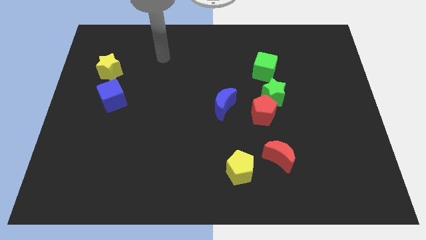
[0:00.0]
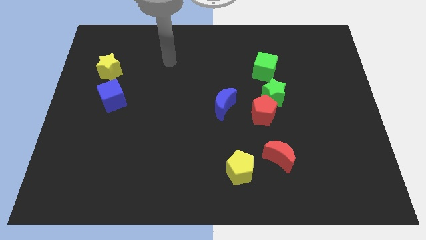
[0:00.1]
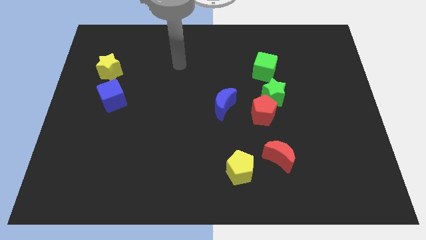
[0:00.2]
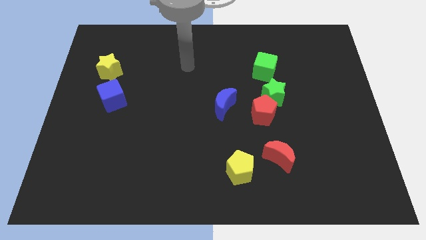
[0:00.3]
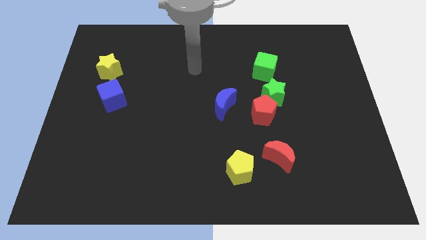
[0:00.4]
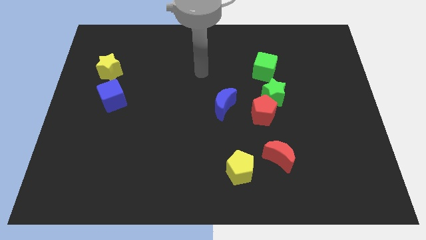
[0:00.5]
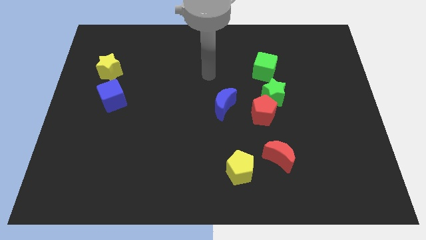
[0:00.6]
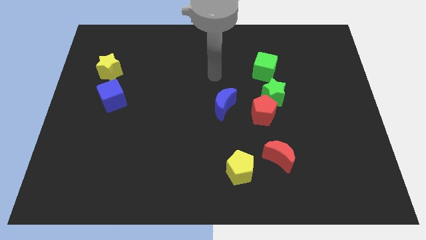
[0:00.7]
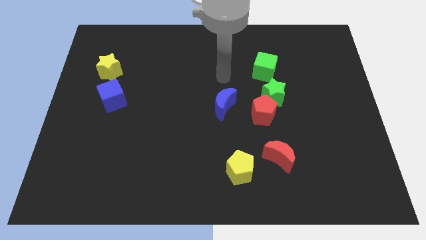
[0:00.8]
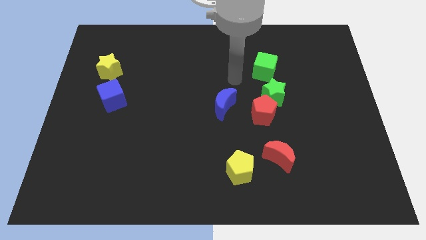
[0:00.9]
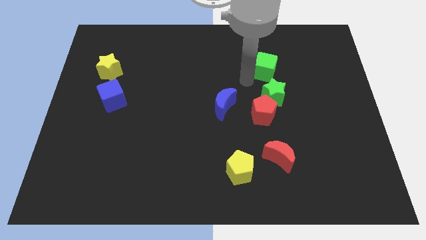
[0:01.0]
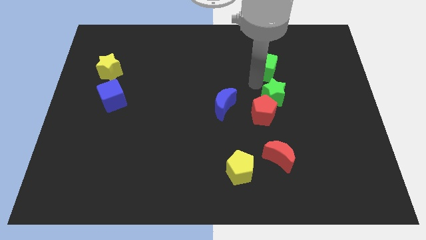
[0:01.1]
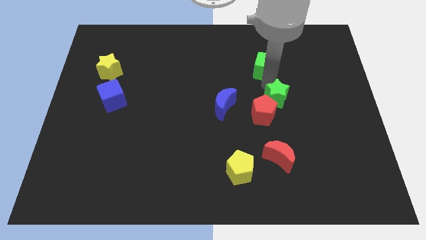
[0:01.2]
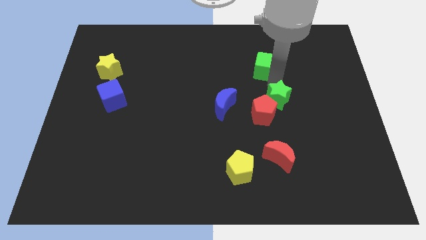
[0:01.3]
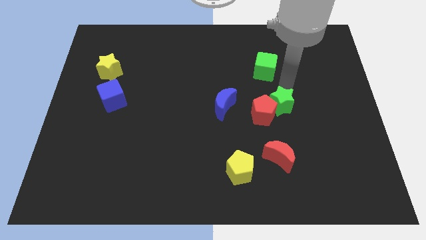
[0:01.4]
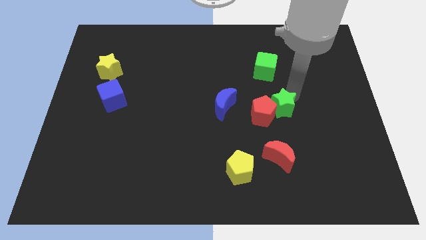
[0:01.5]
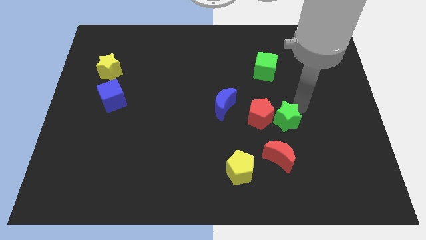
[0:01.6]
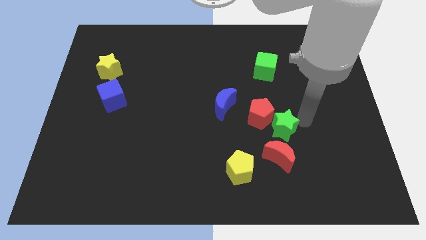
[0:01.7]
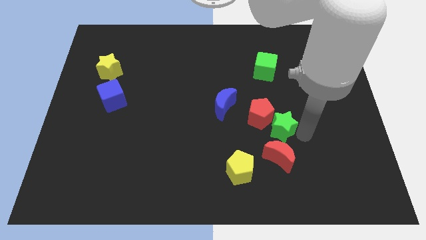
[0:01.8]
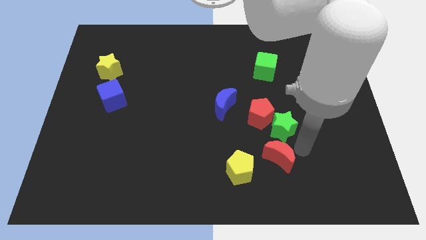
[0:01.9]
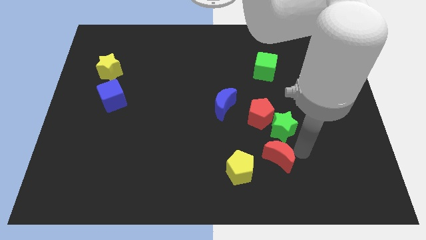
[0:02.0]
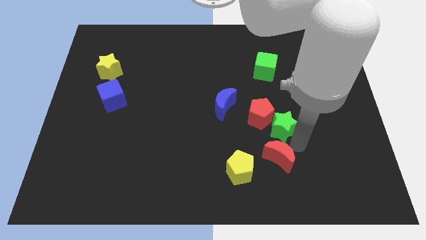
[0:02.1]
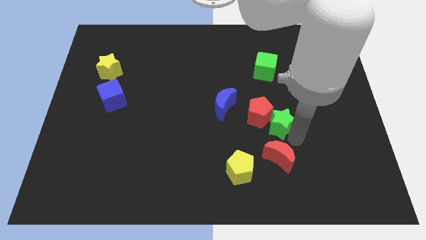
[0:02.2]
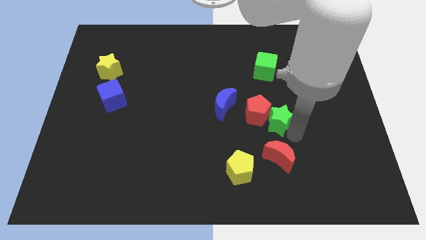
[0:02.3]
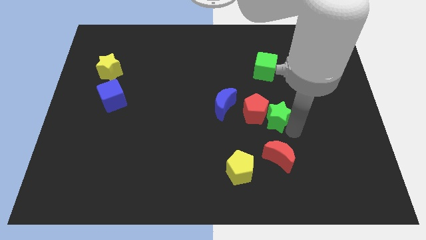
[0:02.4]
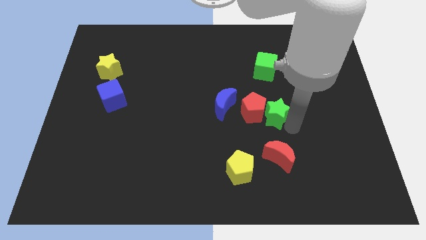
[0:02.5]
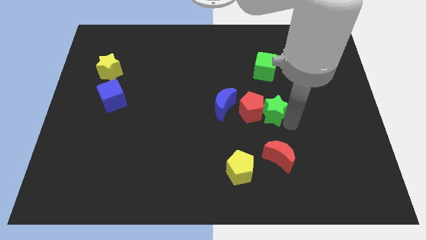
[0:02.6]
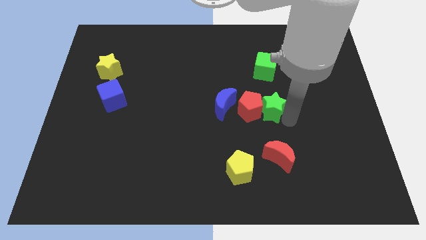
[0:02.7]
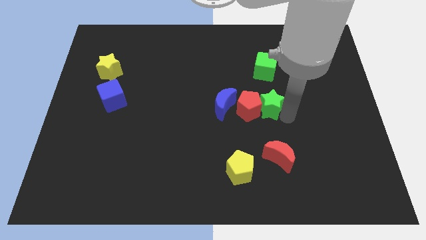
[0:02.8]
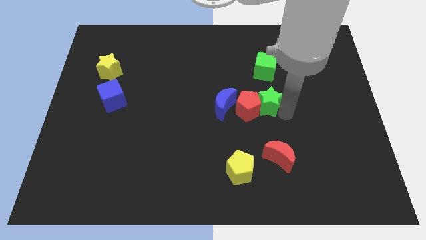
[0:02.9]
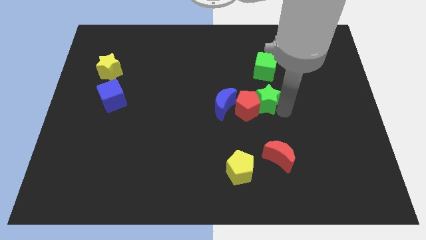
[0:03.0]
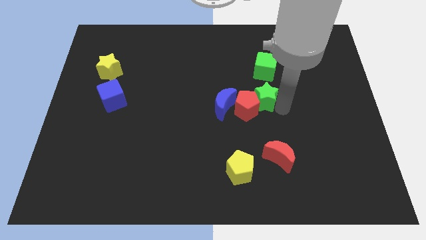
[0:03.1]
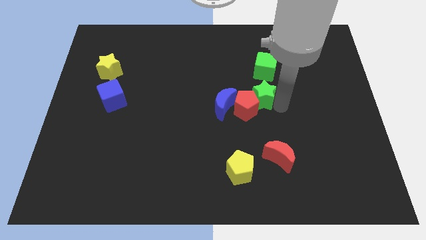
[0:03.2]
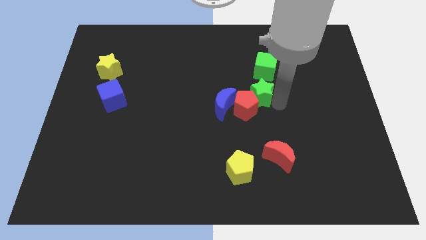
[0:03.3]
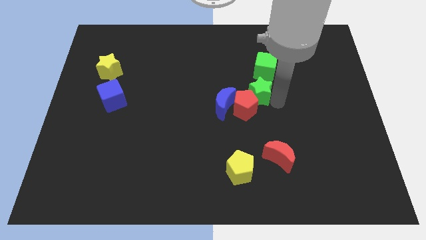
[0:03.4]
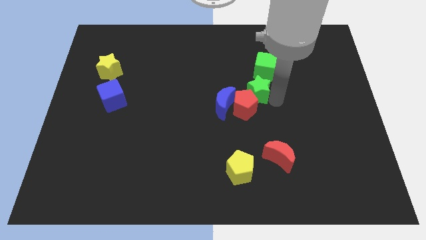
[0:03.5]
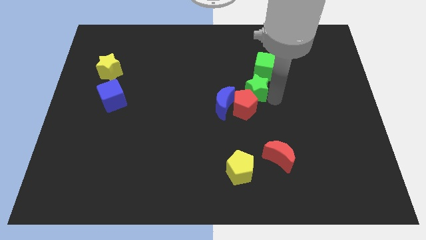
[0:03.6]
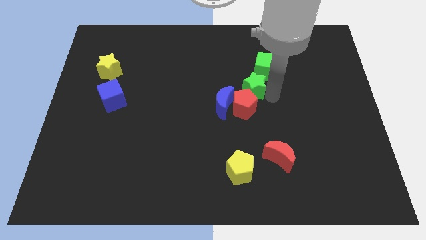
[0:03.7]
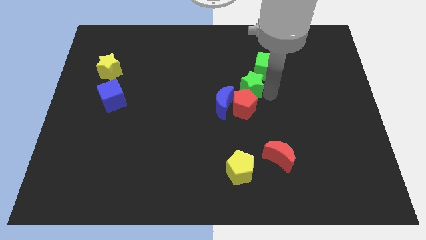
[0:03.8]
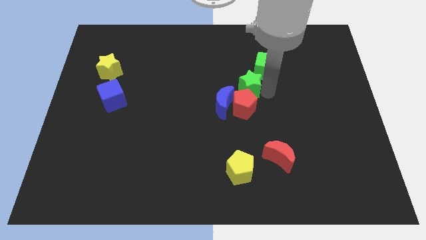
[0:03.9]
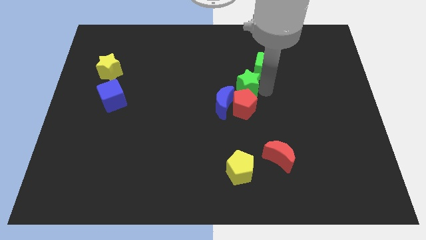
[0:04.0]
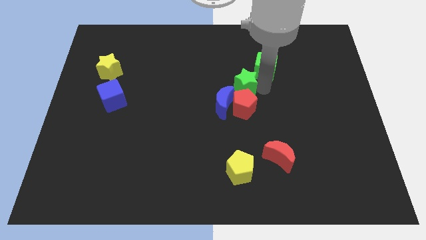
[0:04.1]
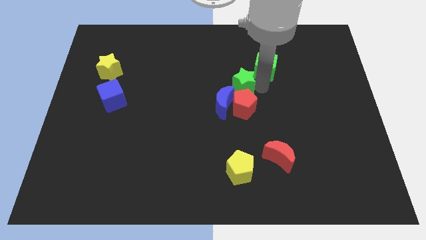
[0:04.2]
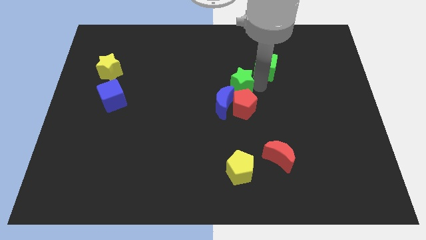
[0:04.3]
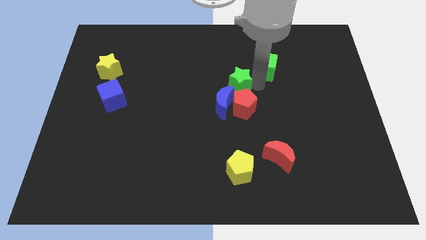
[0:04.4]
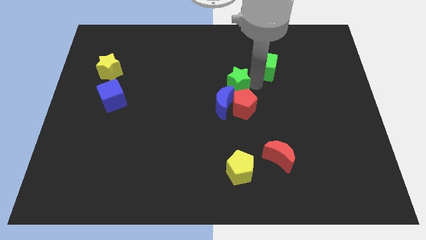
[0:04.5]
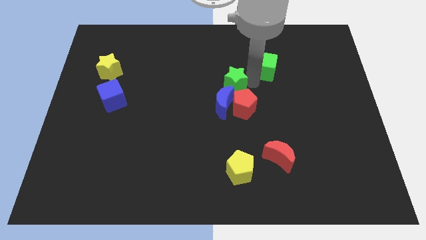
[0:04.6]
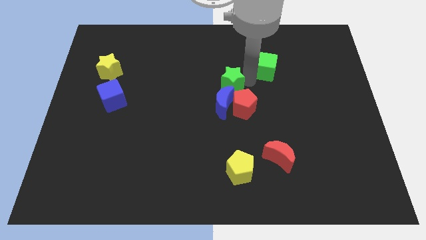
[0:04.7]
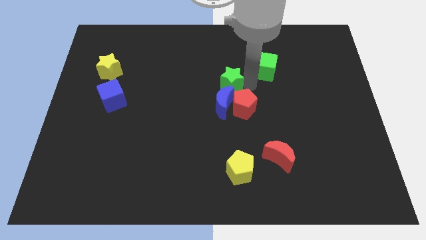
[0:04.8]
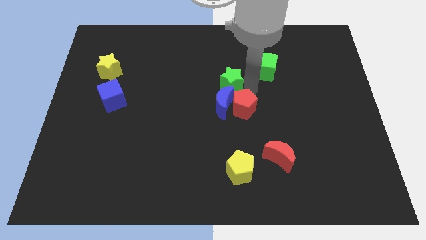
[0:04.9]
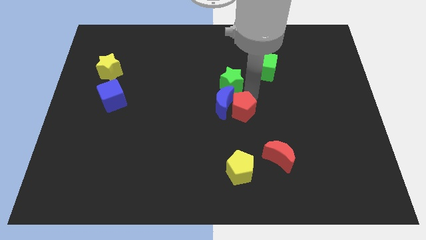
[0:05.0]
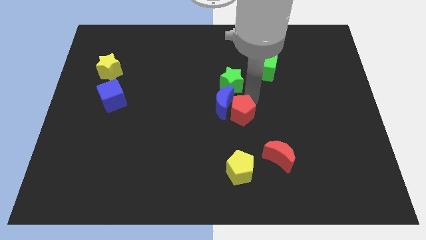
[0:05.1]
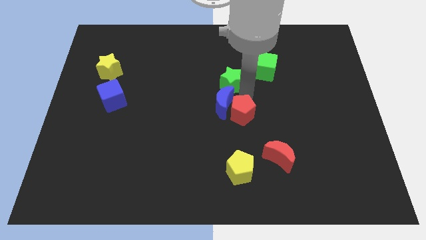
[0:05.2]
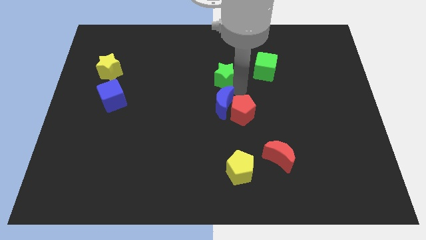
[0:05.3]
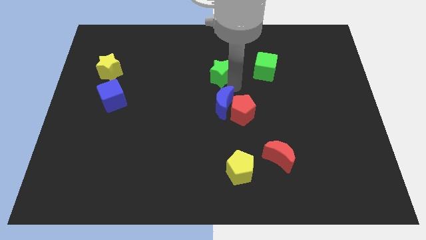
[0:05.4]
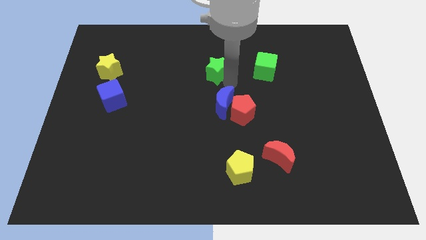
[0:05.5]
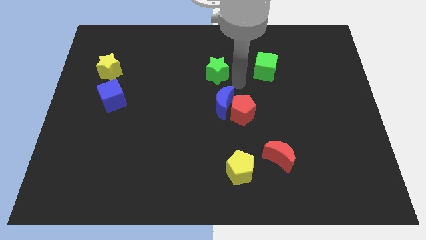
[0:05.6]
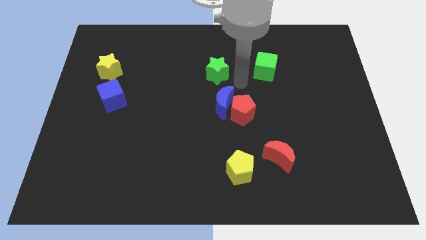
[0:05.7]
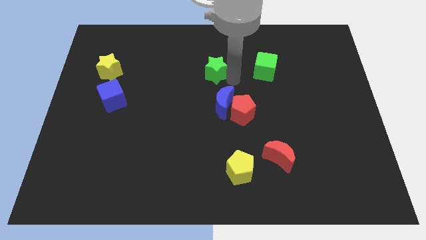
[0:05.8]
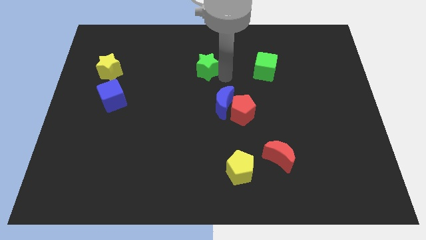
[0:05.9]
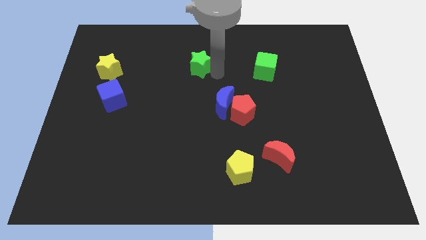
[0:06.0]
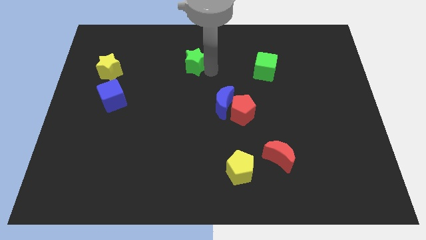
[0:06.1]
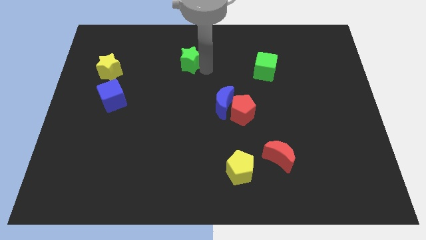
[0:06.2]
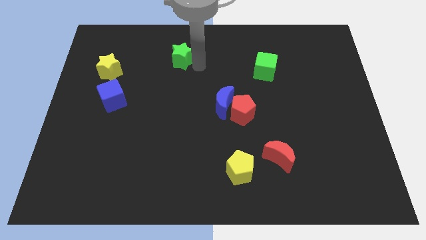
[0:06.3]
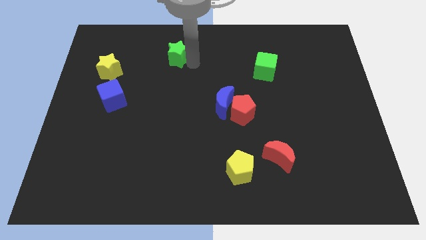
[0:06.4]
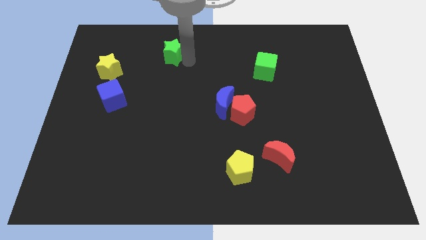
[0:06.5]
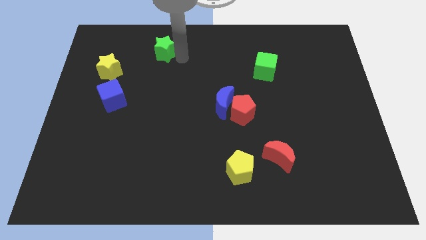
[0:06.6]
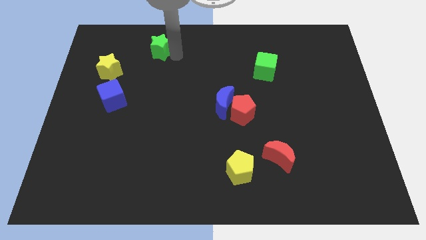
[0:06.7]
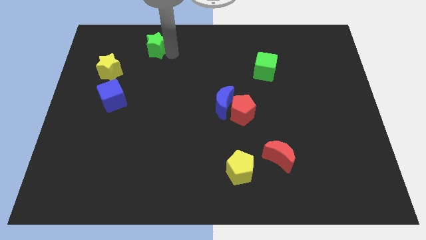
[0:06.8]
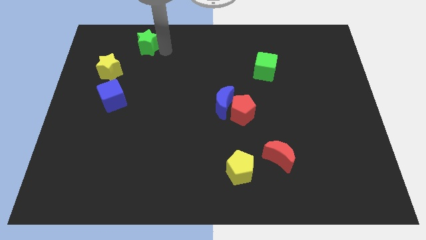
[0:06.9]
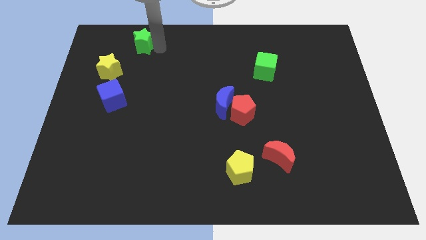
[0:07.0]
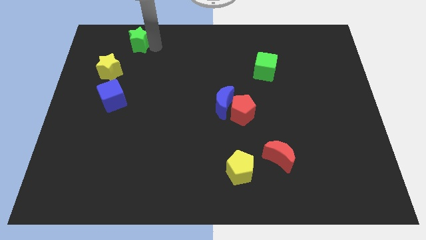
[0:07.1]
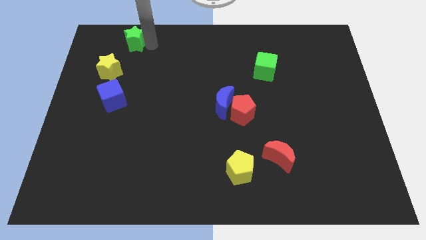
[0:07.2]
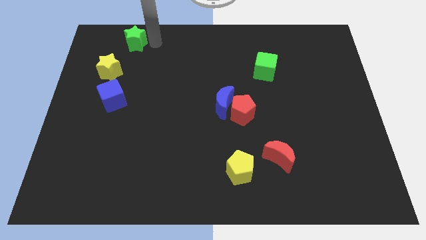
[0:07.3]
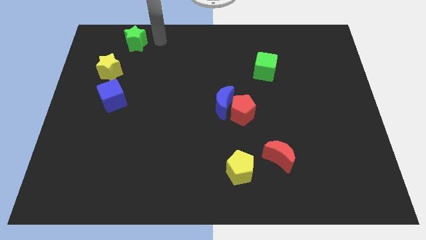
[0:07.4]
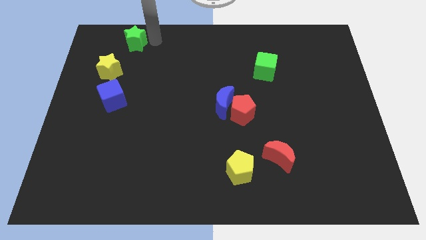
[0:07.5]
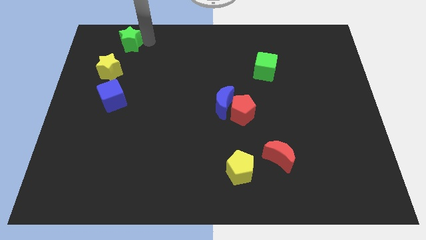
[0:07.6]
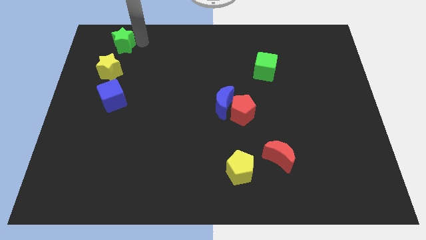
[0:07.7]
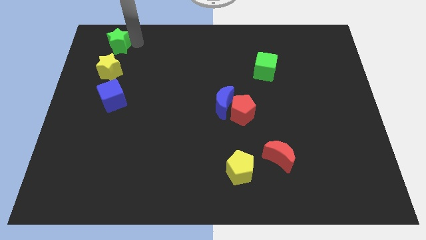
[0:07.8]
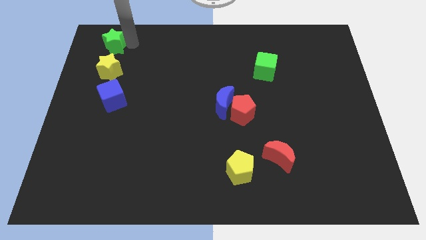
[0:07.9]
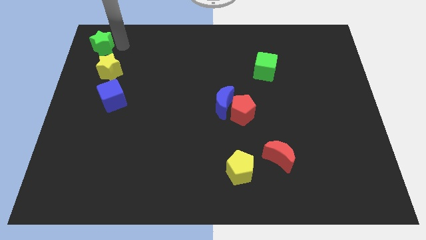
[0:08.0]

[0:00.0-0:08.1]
slide the green star to the top left corner
